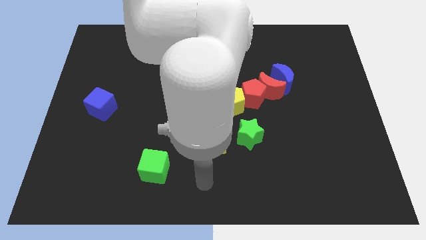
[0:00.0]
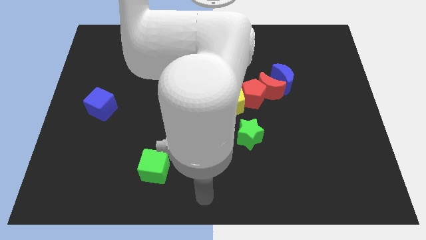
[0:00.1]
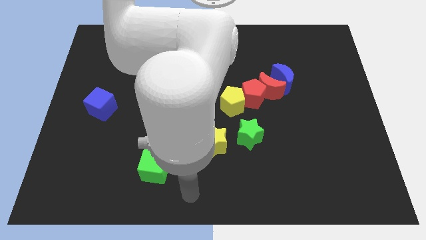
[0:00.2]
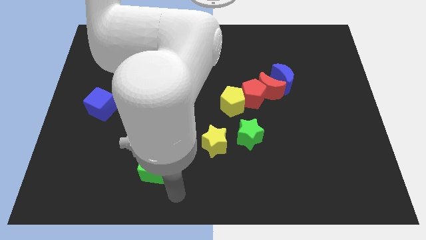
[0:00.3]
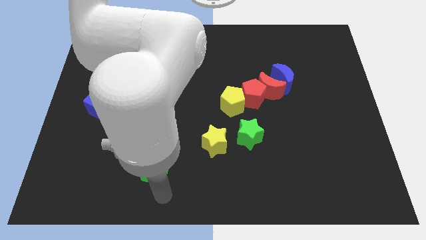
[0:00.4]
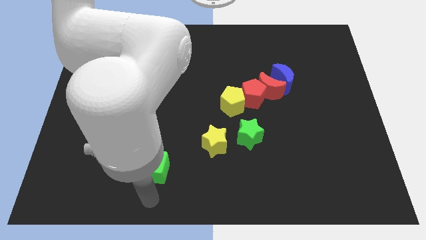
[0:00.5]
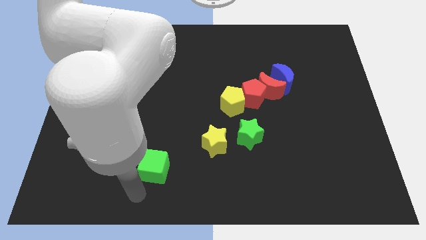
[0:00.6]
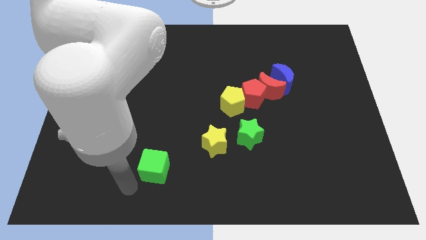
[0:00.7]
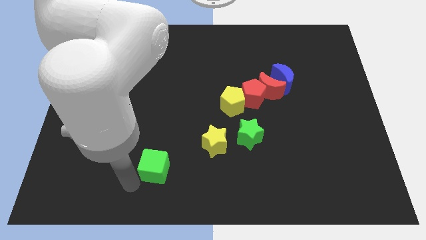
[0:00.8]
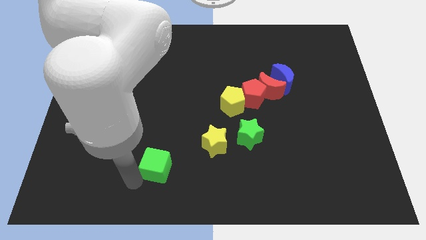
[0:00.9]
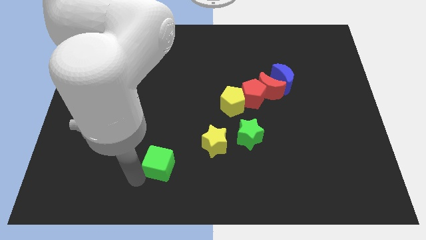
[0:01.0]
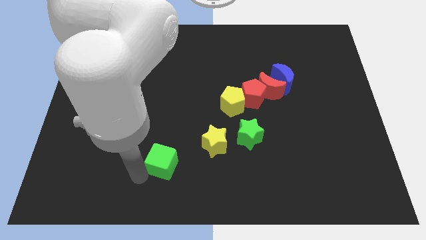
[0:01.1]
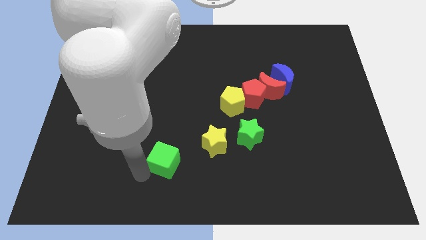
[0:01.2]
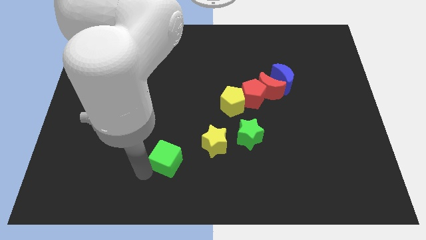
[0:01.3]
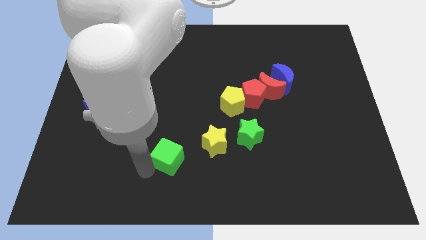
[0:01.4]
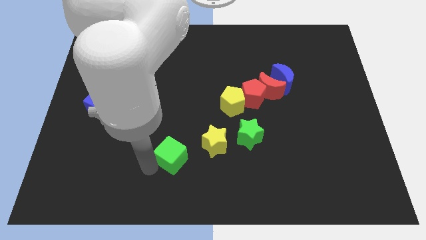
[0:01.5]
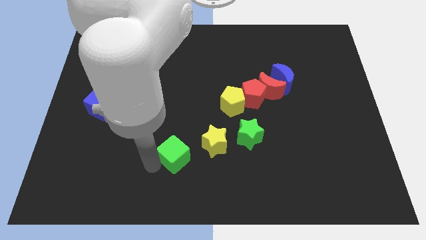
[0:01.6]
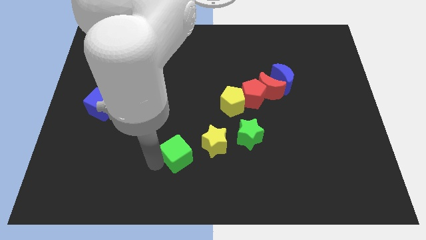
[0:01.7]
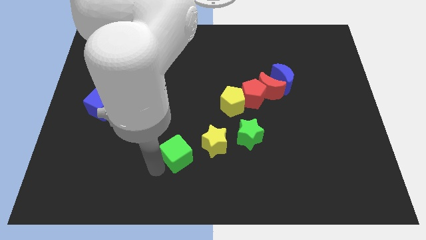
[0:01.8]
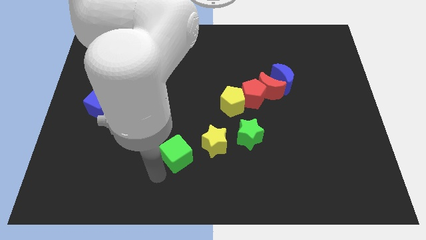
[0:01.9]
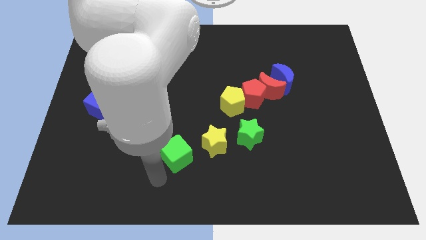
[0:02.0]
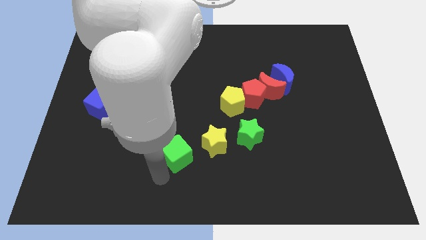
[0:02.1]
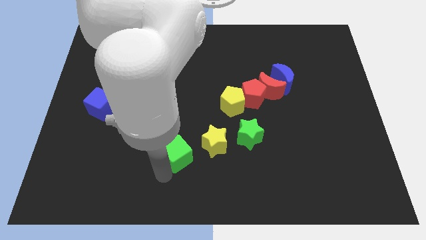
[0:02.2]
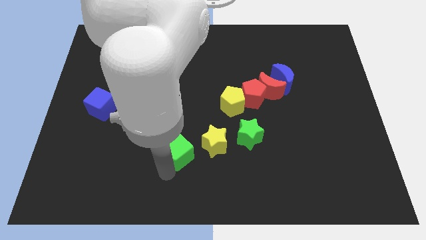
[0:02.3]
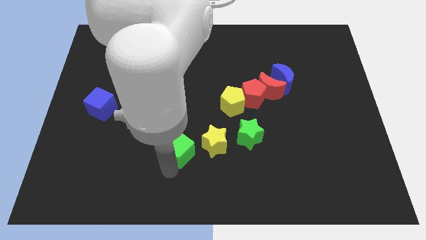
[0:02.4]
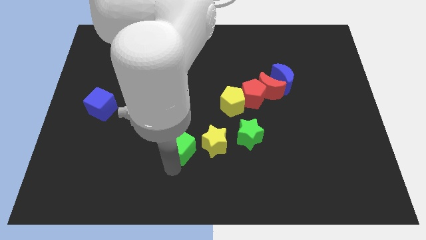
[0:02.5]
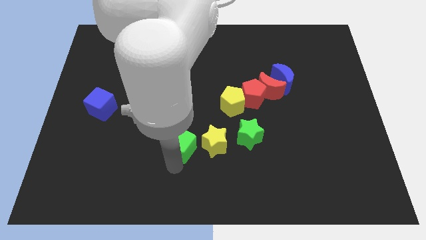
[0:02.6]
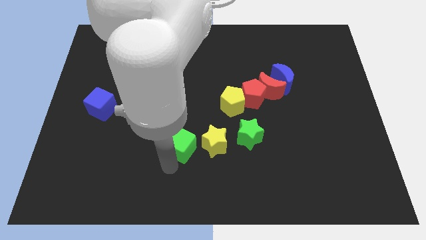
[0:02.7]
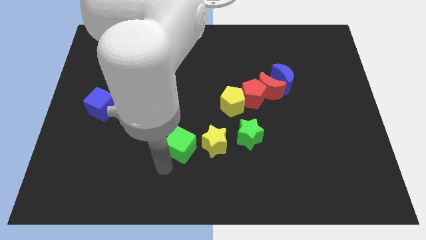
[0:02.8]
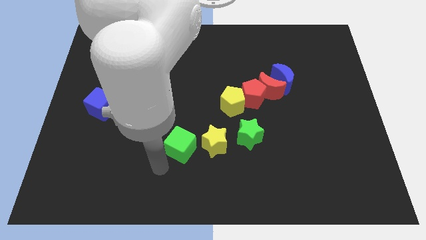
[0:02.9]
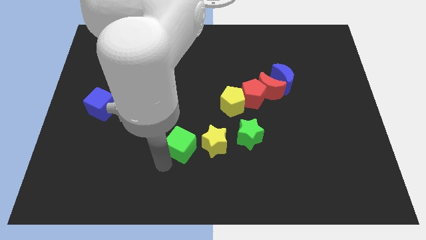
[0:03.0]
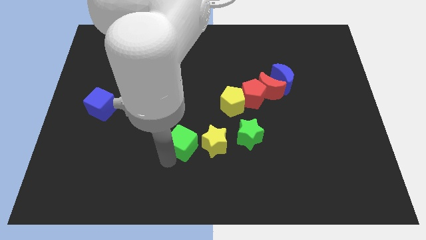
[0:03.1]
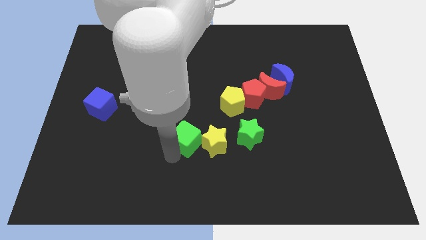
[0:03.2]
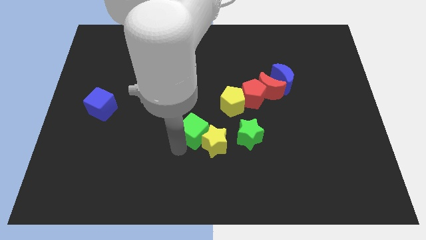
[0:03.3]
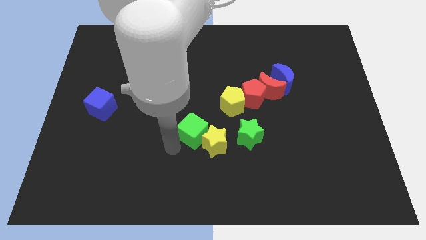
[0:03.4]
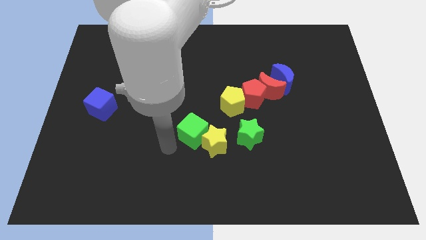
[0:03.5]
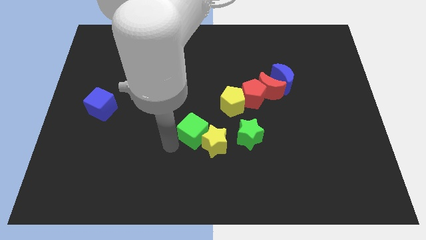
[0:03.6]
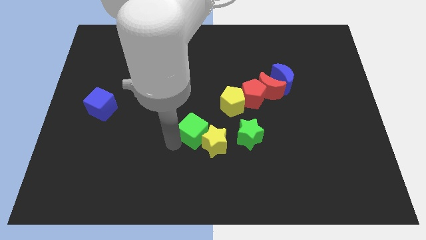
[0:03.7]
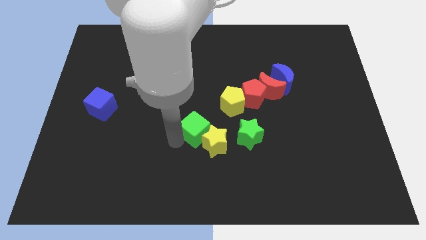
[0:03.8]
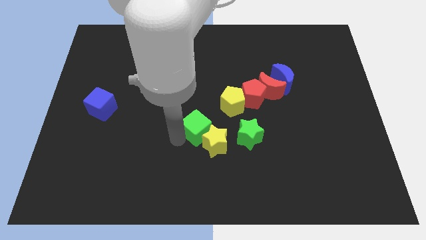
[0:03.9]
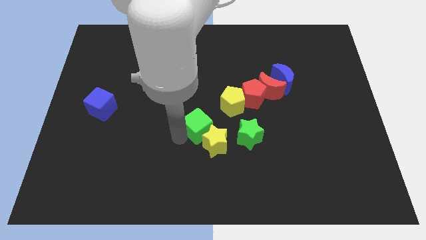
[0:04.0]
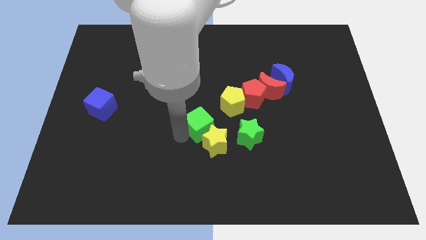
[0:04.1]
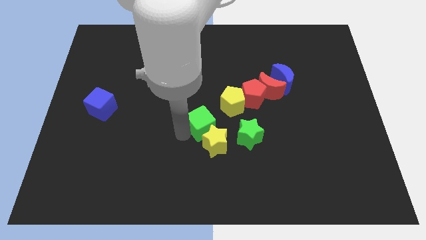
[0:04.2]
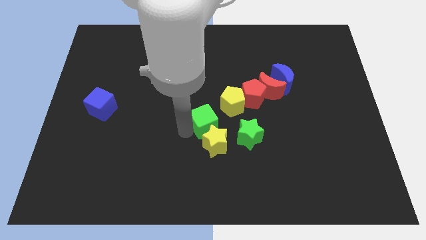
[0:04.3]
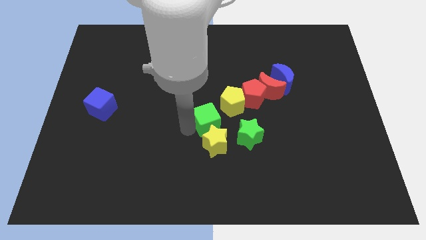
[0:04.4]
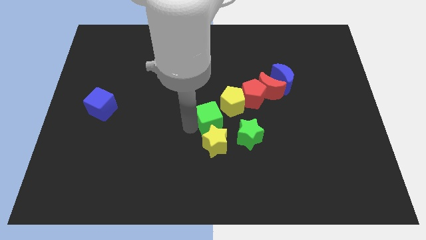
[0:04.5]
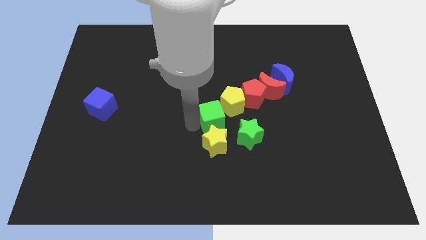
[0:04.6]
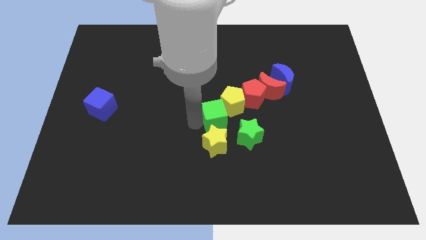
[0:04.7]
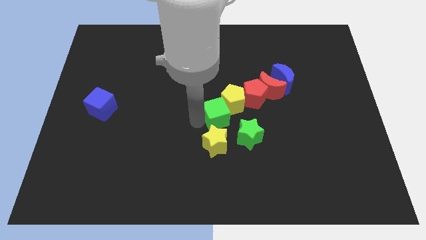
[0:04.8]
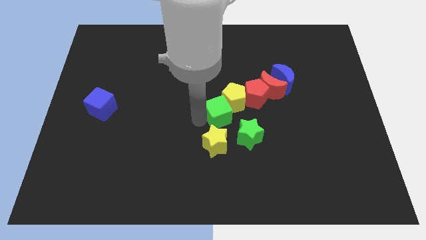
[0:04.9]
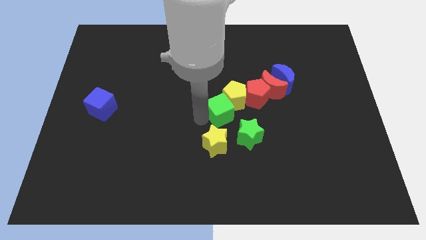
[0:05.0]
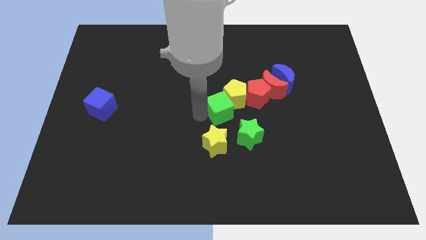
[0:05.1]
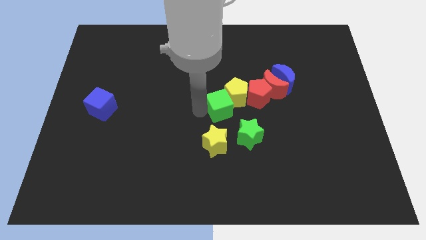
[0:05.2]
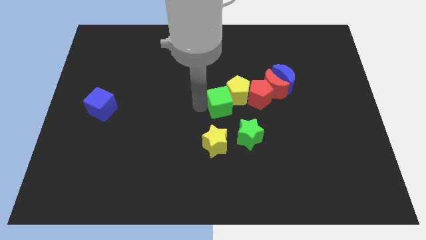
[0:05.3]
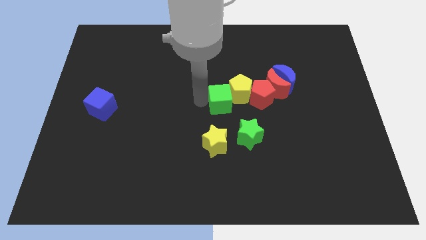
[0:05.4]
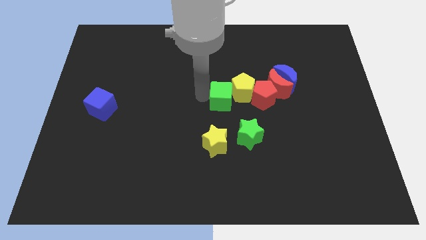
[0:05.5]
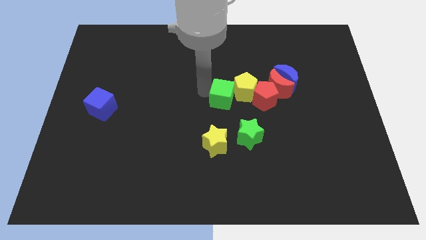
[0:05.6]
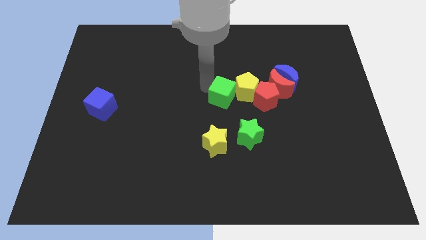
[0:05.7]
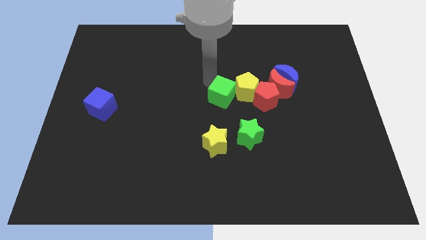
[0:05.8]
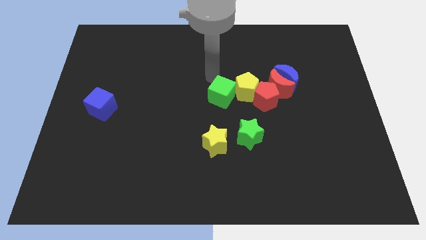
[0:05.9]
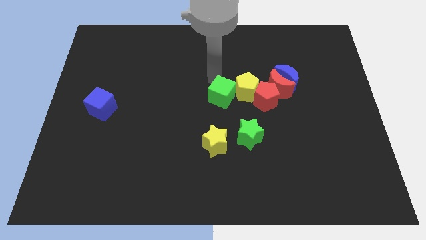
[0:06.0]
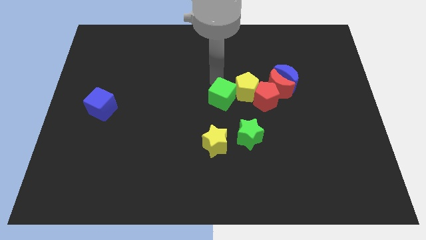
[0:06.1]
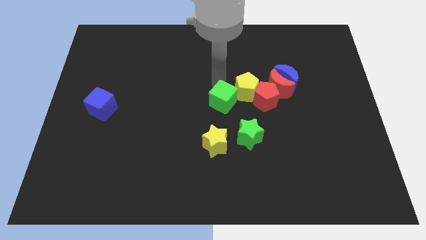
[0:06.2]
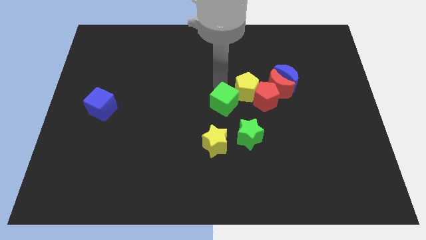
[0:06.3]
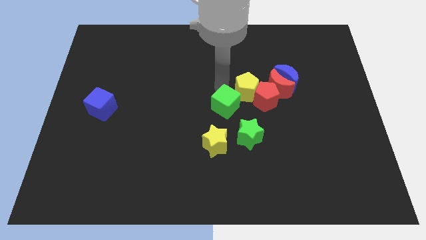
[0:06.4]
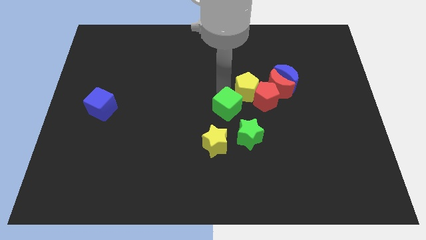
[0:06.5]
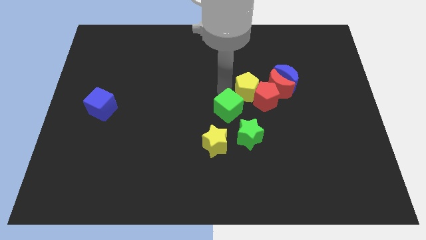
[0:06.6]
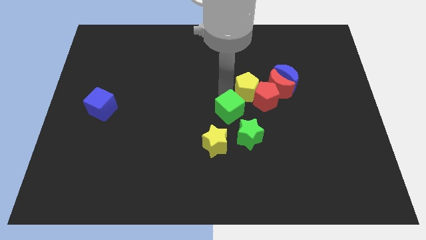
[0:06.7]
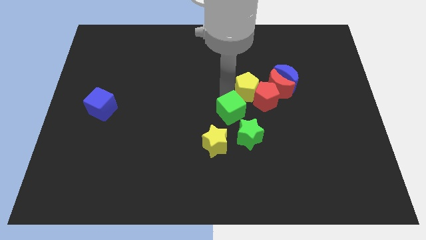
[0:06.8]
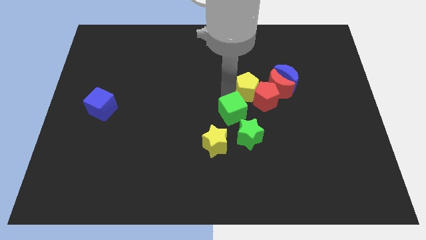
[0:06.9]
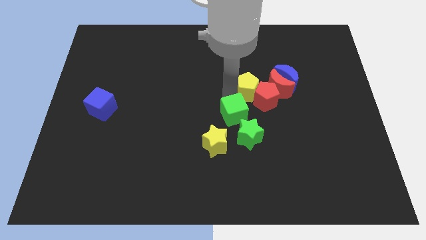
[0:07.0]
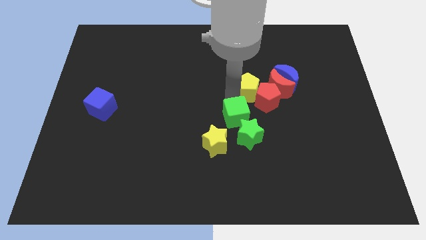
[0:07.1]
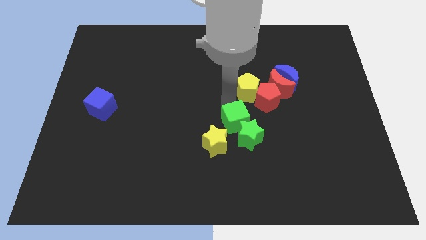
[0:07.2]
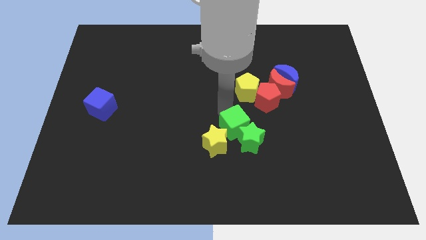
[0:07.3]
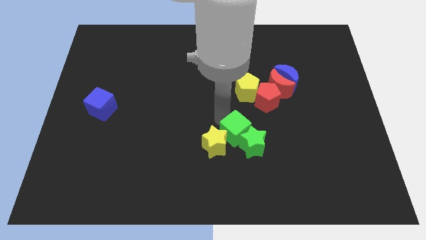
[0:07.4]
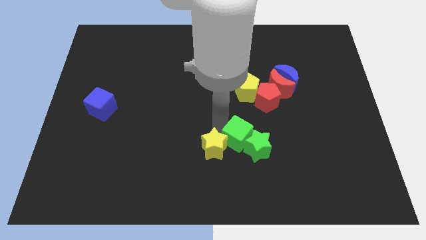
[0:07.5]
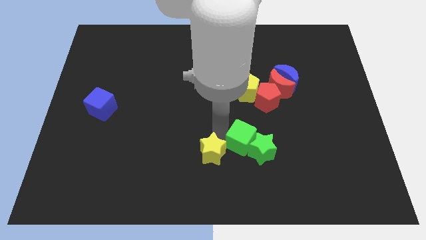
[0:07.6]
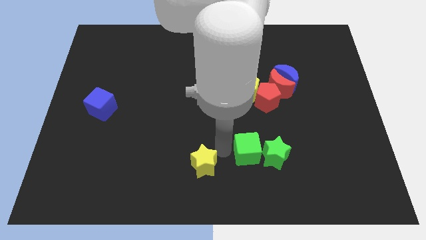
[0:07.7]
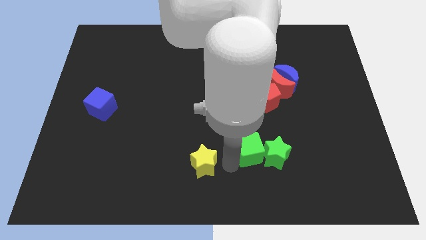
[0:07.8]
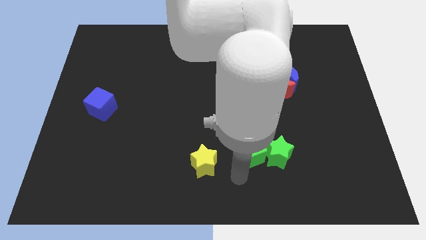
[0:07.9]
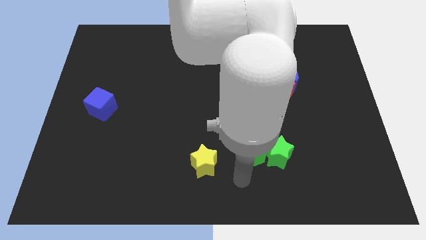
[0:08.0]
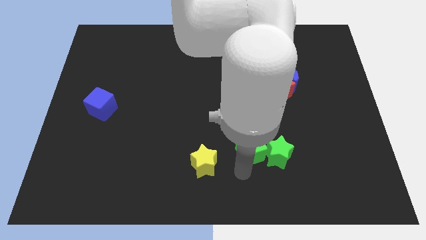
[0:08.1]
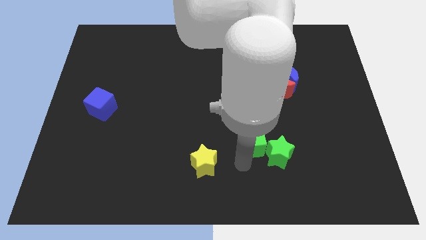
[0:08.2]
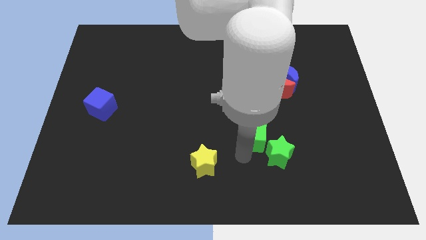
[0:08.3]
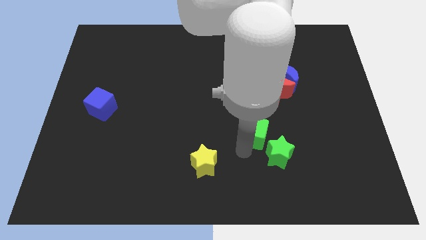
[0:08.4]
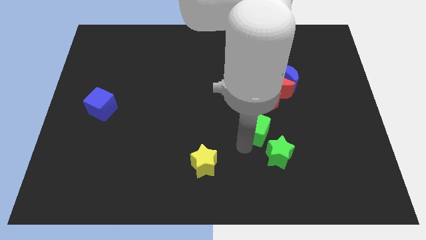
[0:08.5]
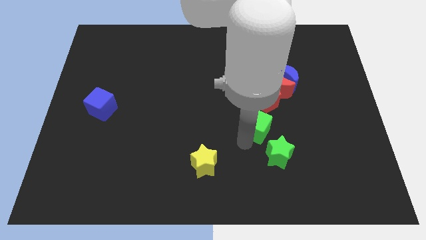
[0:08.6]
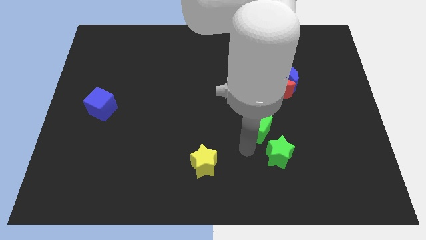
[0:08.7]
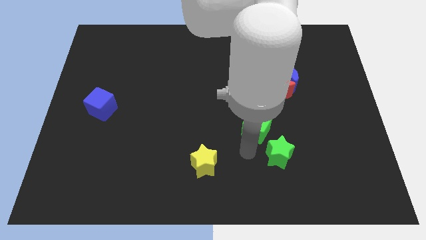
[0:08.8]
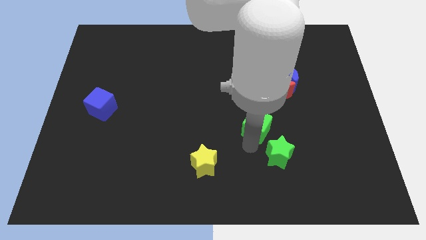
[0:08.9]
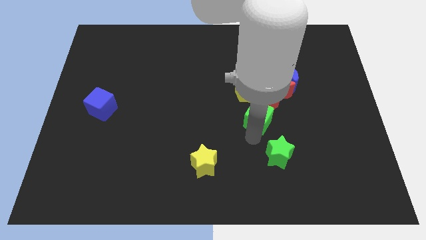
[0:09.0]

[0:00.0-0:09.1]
put the green cube to the red pentagon
